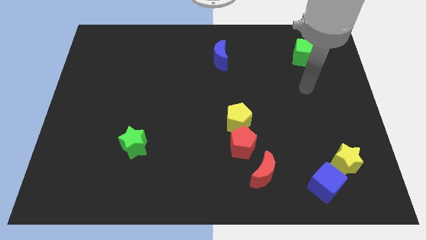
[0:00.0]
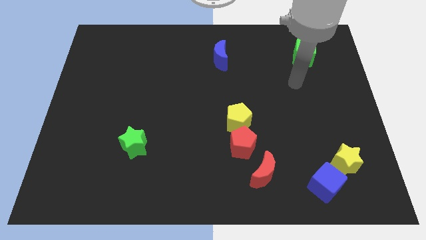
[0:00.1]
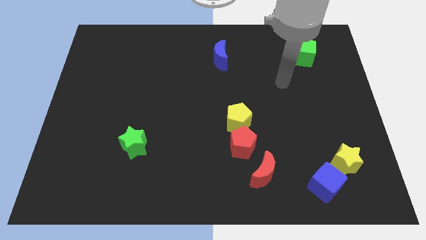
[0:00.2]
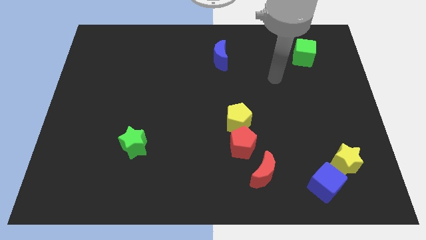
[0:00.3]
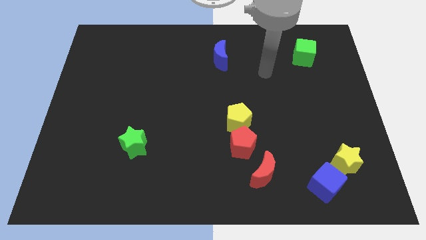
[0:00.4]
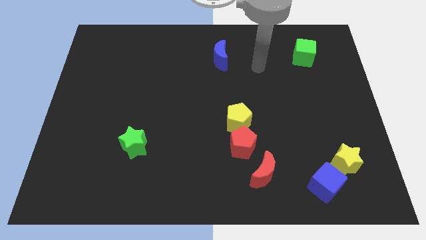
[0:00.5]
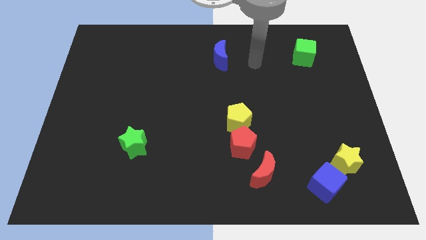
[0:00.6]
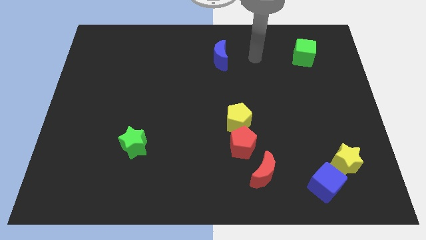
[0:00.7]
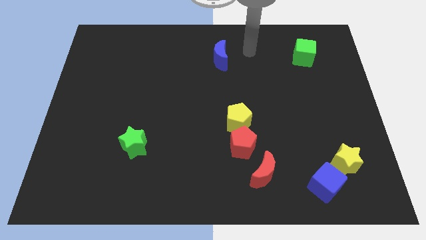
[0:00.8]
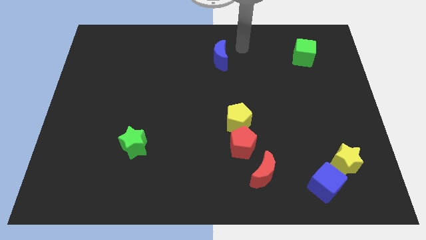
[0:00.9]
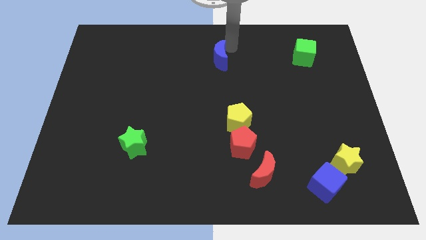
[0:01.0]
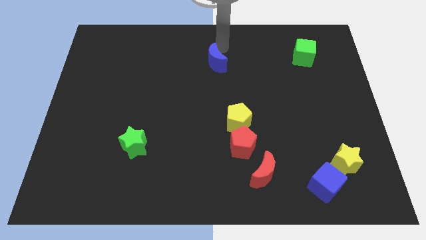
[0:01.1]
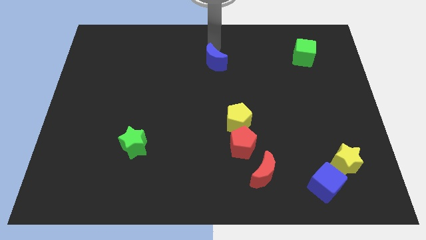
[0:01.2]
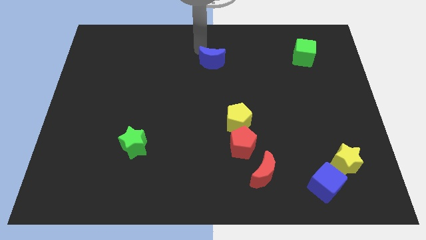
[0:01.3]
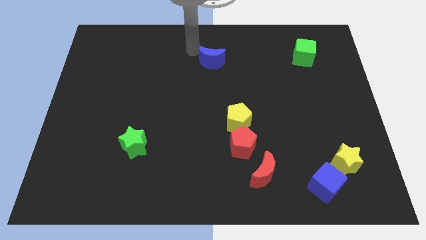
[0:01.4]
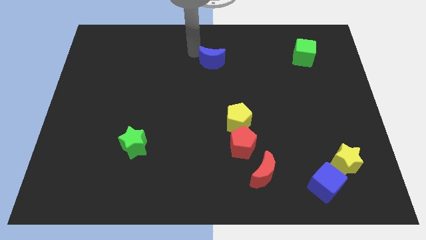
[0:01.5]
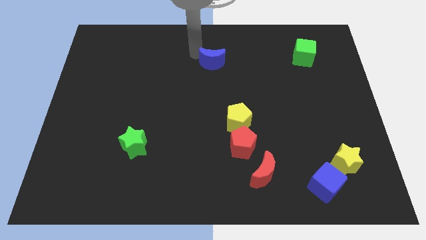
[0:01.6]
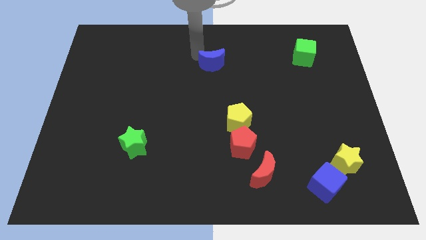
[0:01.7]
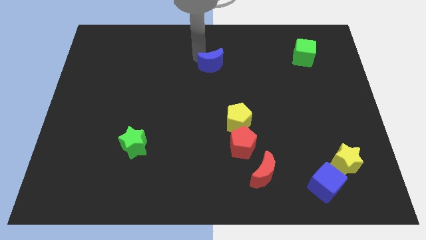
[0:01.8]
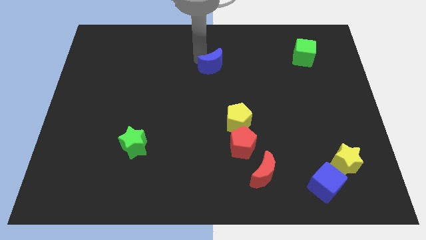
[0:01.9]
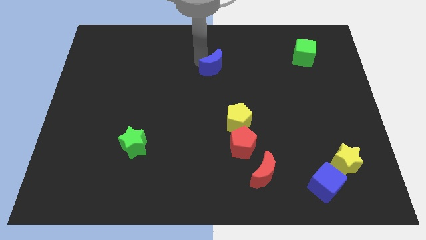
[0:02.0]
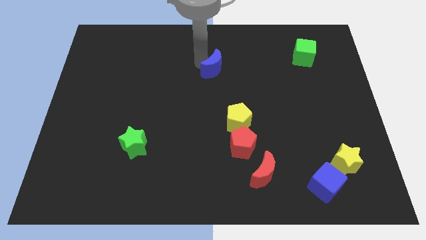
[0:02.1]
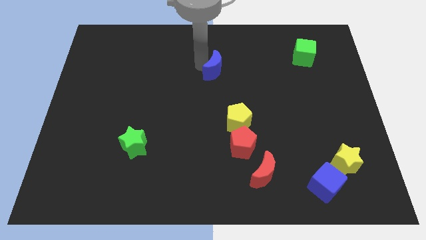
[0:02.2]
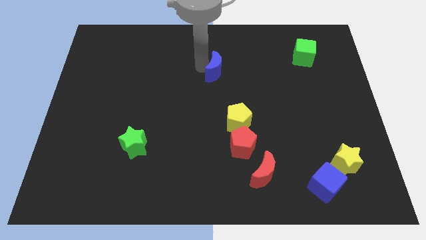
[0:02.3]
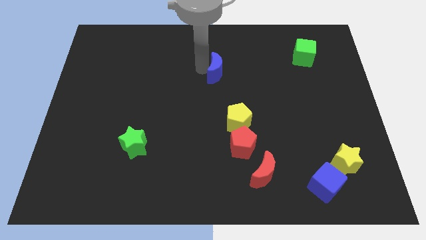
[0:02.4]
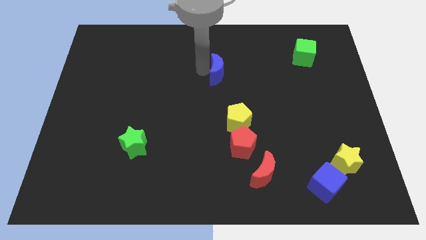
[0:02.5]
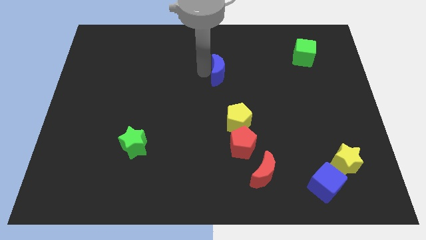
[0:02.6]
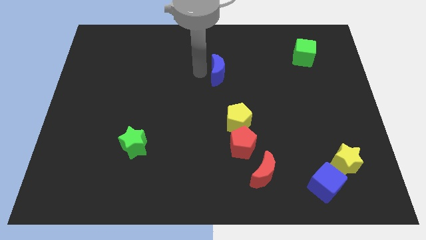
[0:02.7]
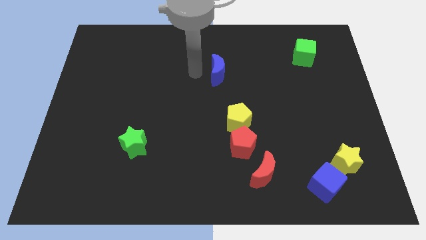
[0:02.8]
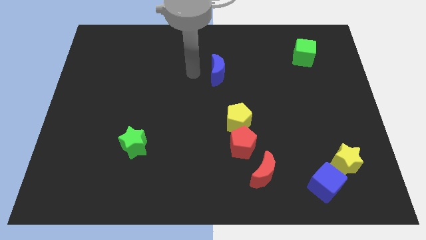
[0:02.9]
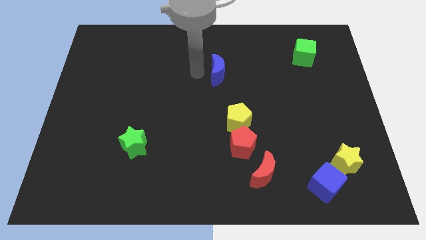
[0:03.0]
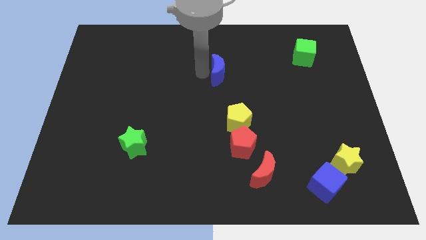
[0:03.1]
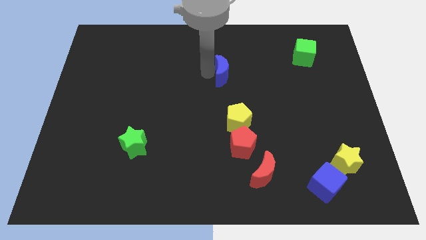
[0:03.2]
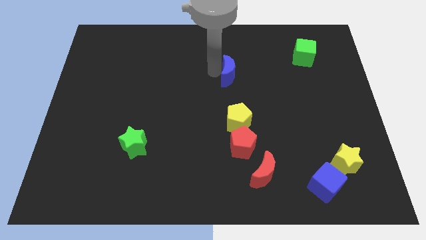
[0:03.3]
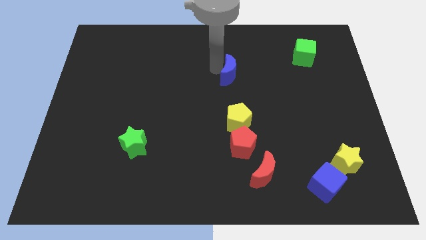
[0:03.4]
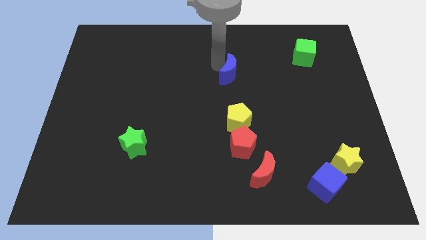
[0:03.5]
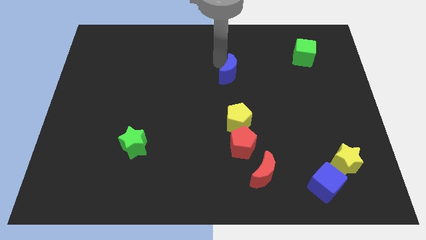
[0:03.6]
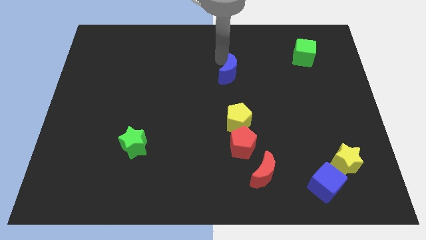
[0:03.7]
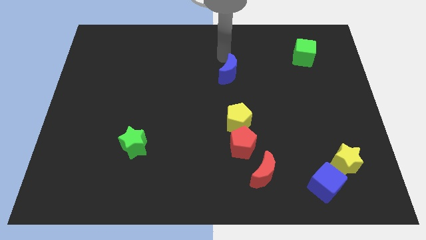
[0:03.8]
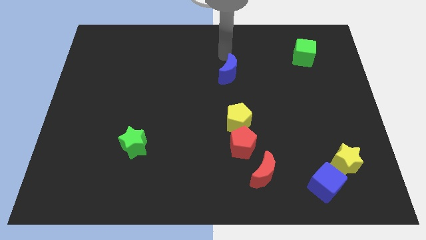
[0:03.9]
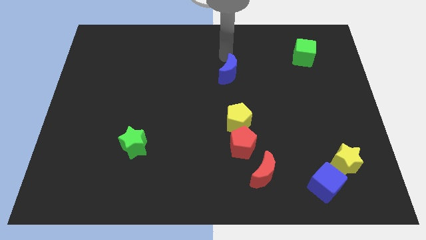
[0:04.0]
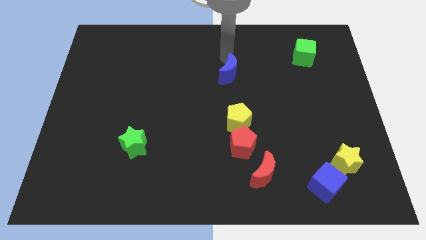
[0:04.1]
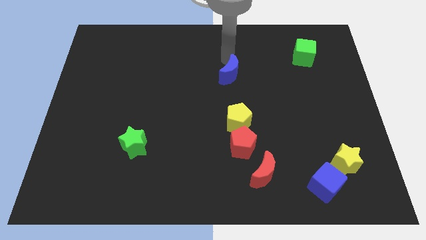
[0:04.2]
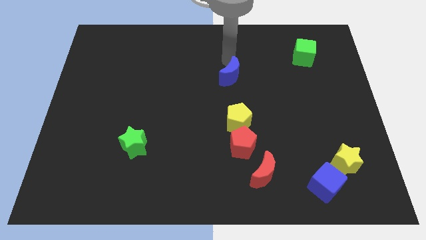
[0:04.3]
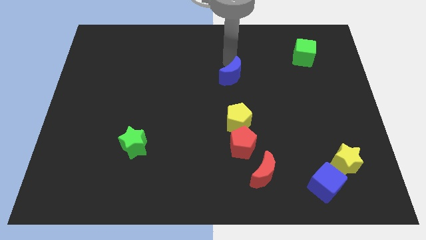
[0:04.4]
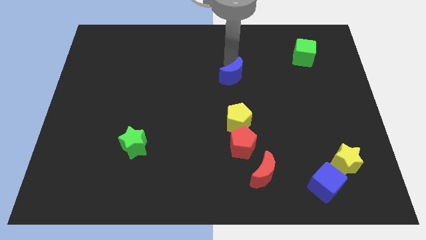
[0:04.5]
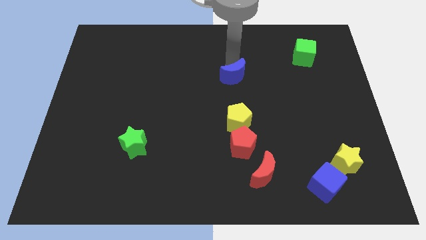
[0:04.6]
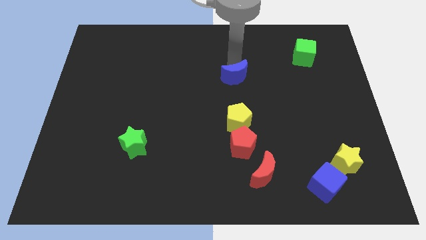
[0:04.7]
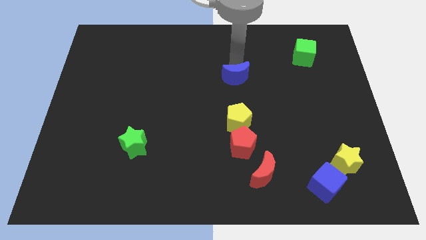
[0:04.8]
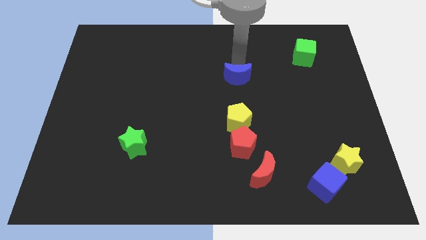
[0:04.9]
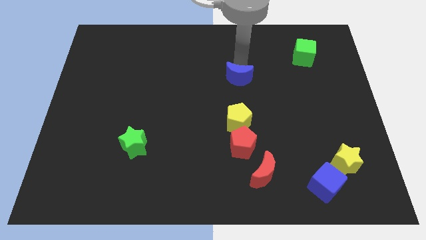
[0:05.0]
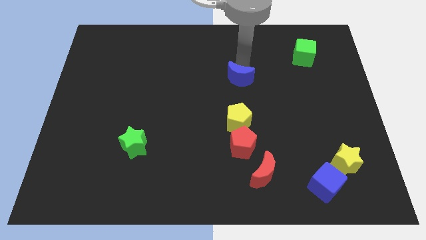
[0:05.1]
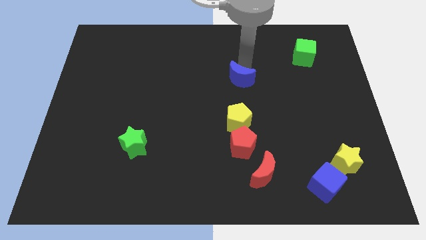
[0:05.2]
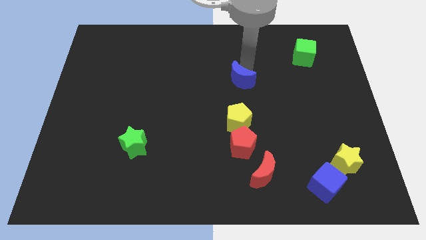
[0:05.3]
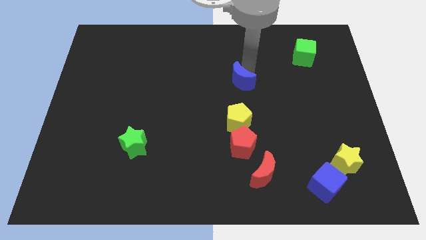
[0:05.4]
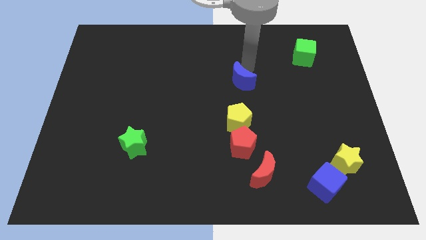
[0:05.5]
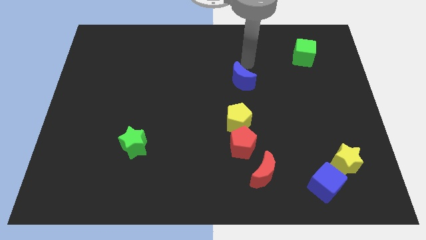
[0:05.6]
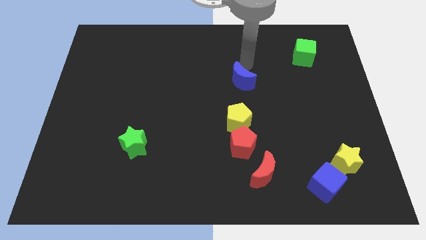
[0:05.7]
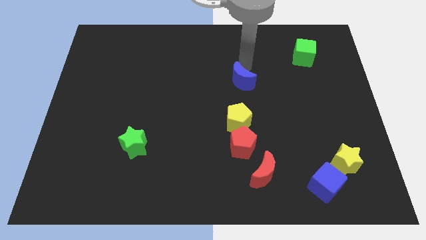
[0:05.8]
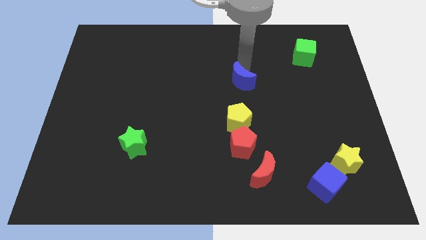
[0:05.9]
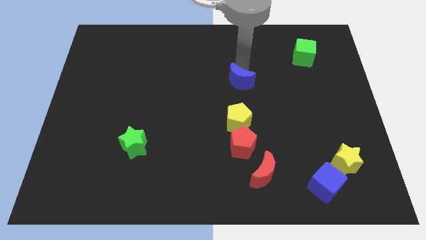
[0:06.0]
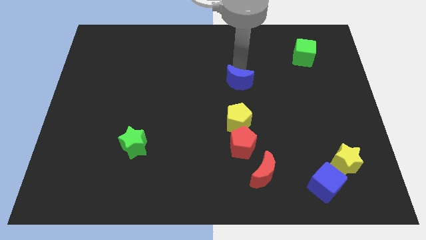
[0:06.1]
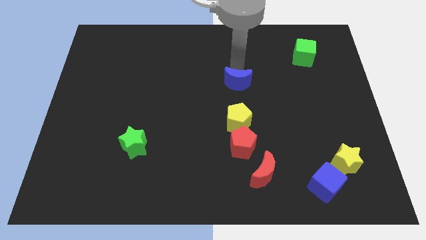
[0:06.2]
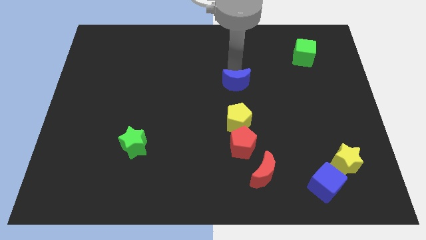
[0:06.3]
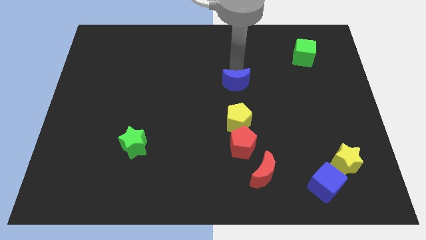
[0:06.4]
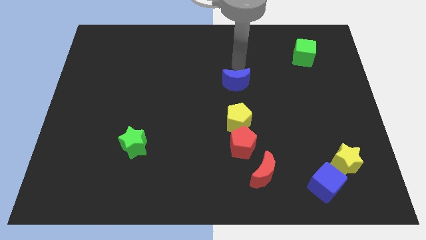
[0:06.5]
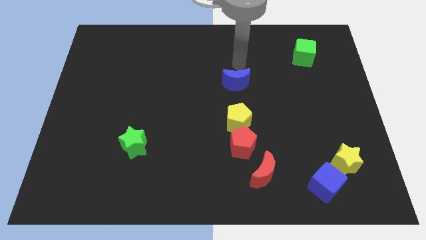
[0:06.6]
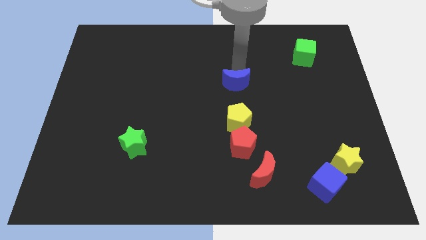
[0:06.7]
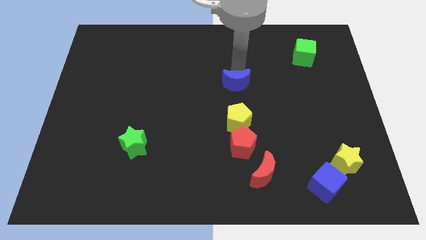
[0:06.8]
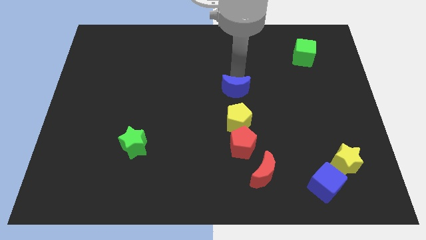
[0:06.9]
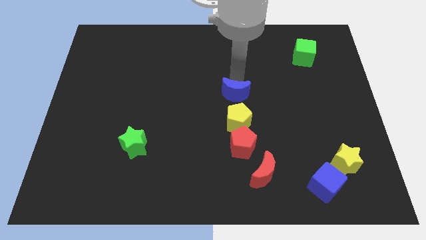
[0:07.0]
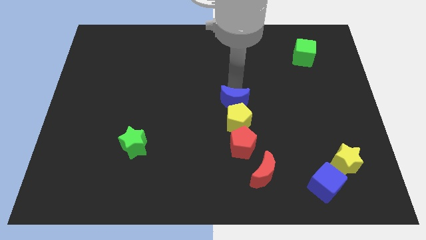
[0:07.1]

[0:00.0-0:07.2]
put the blue moon to the yellow pentagon
